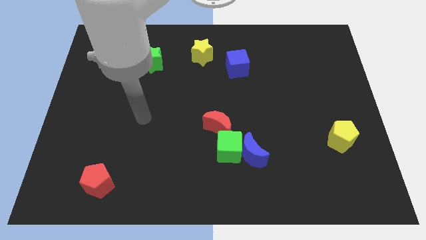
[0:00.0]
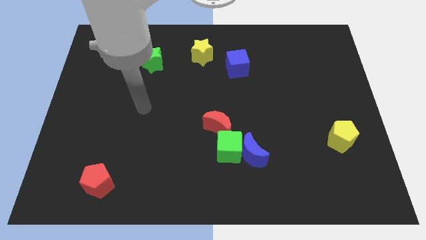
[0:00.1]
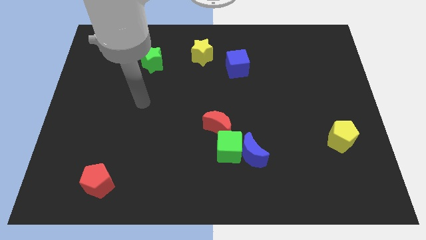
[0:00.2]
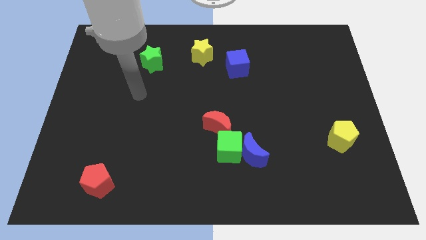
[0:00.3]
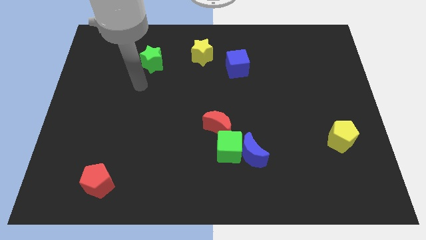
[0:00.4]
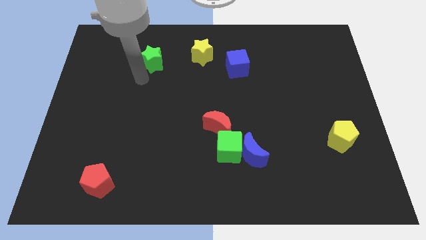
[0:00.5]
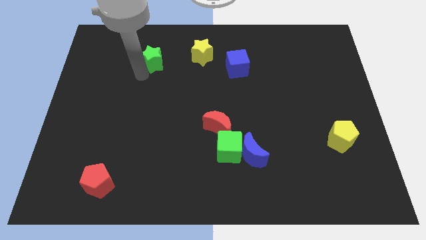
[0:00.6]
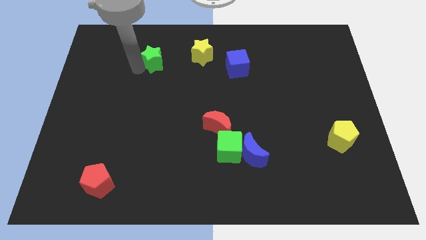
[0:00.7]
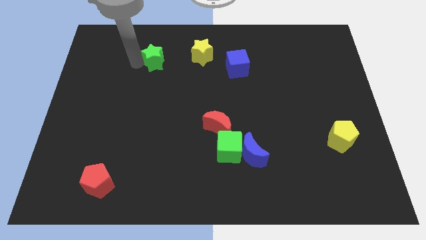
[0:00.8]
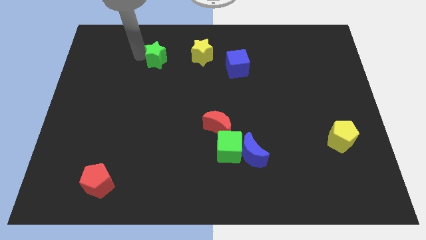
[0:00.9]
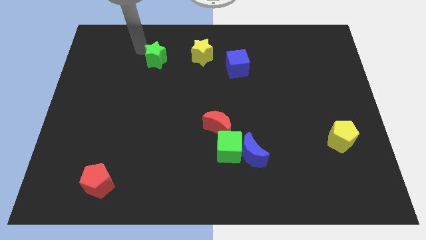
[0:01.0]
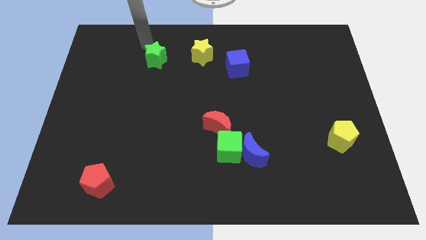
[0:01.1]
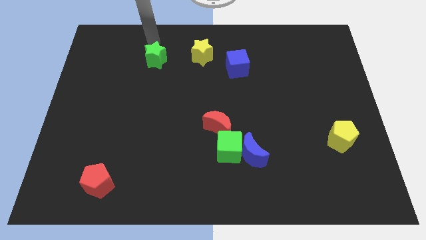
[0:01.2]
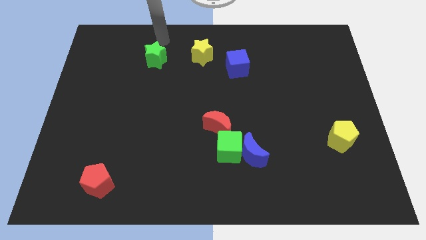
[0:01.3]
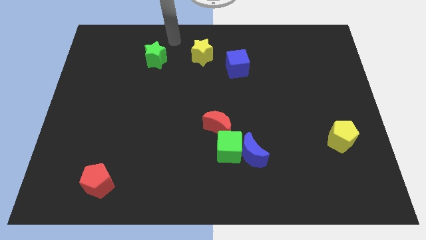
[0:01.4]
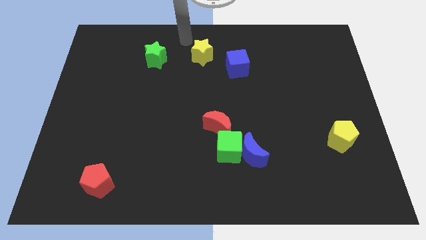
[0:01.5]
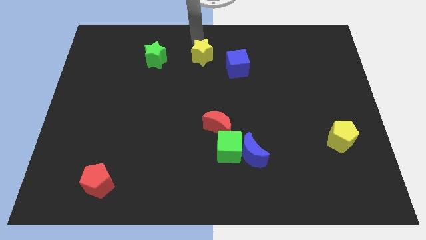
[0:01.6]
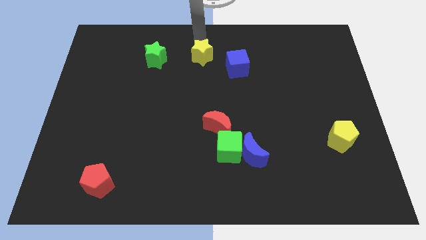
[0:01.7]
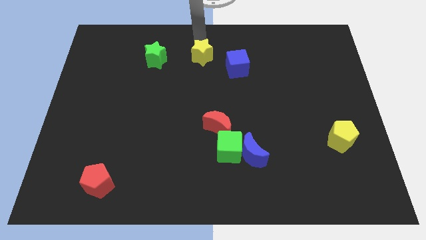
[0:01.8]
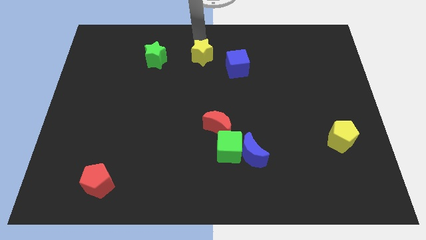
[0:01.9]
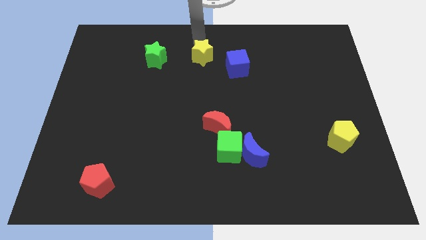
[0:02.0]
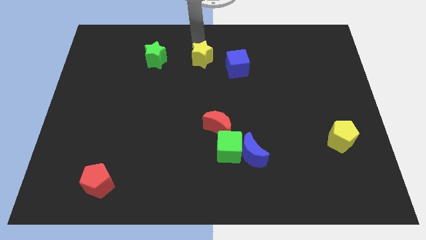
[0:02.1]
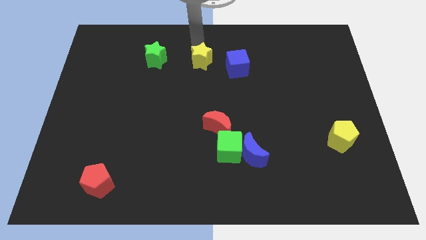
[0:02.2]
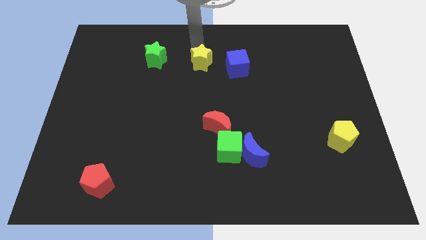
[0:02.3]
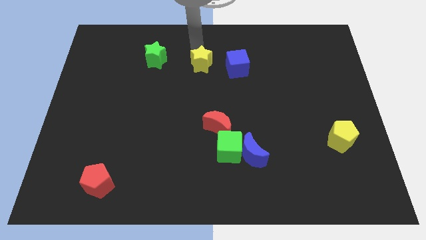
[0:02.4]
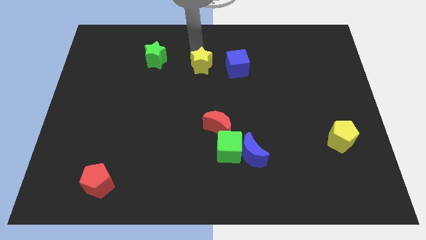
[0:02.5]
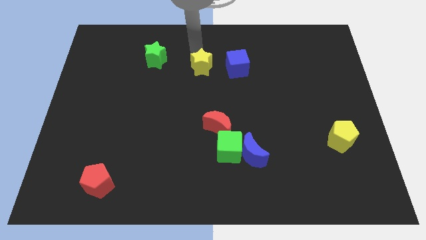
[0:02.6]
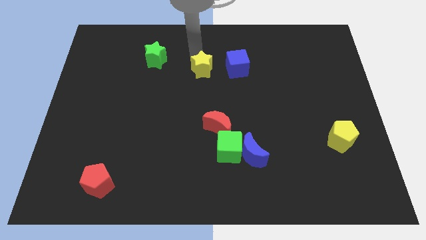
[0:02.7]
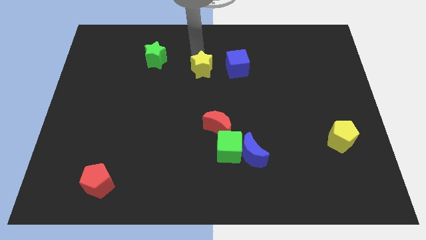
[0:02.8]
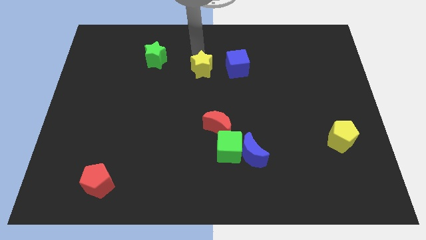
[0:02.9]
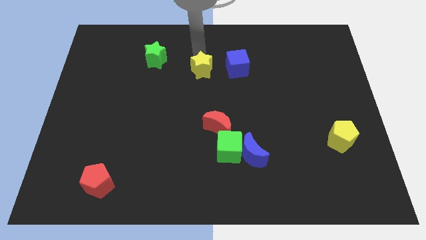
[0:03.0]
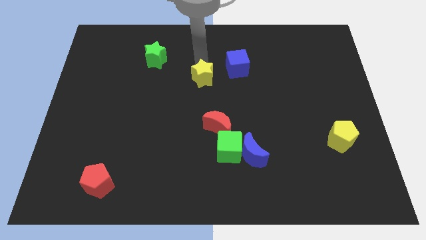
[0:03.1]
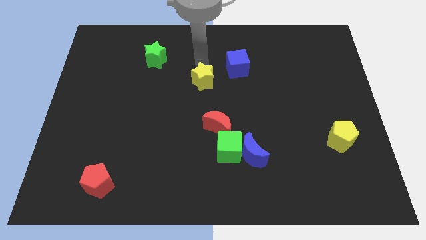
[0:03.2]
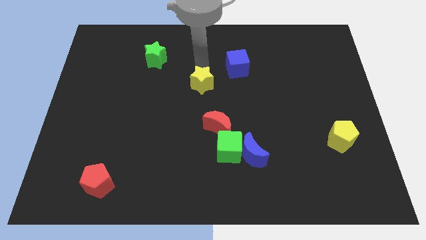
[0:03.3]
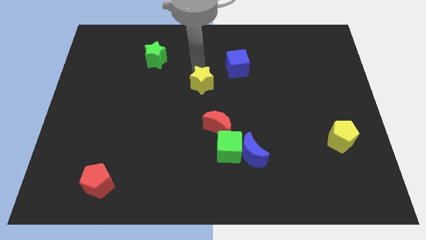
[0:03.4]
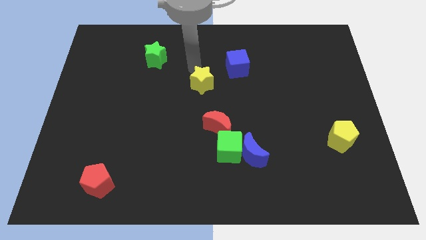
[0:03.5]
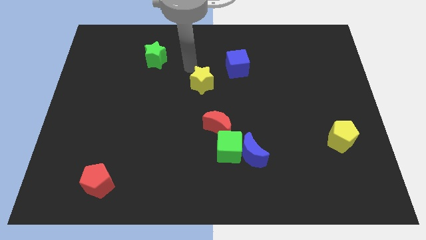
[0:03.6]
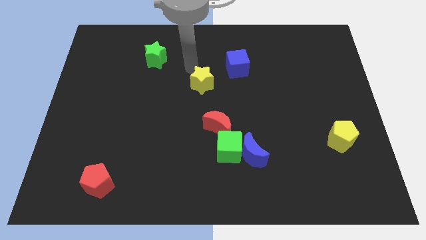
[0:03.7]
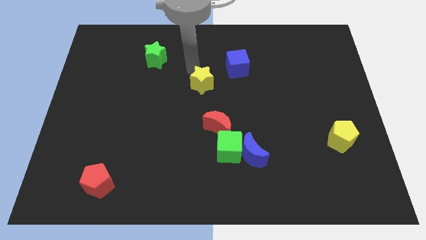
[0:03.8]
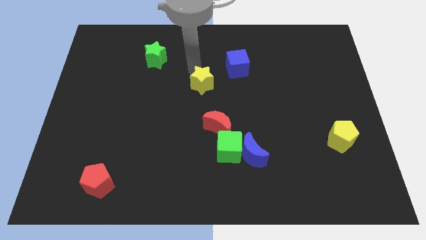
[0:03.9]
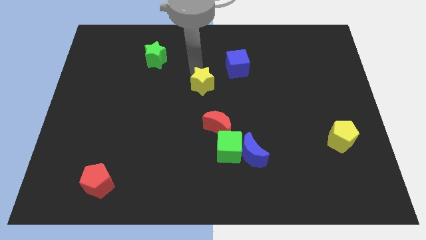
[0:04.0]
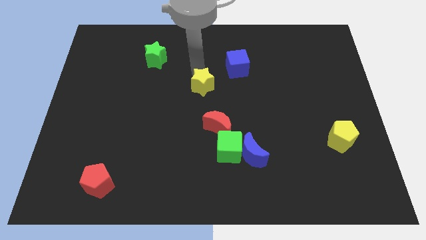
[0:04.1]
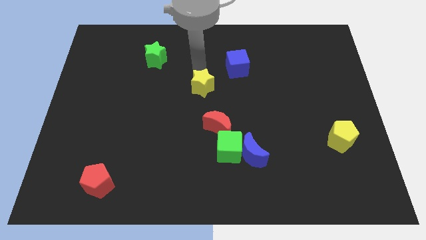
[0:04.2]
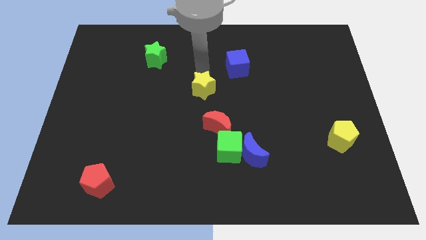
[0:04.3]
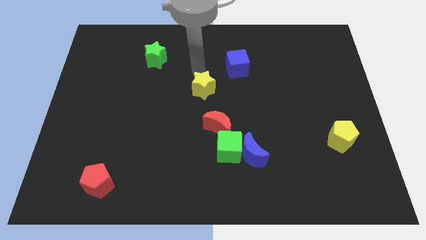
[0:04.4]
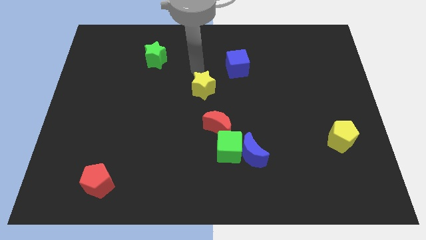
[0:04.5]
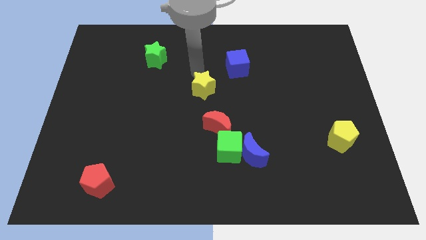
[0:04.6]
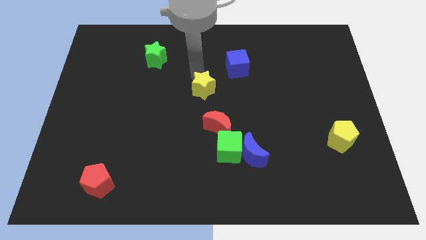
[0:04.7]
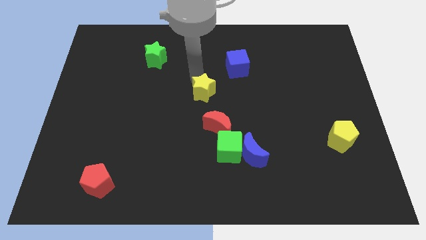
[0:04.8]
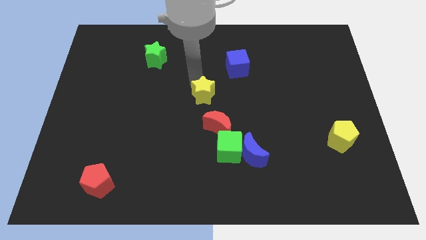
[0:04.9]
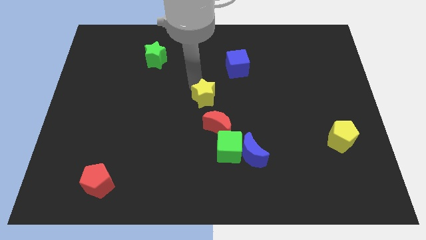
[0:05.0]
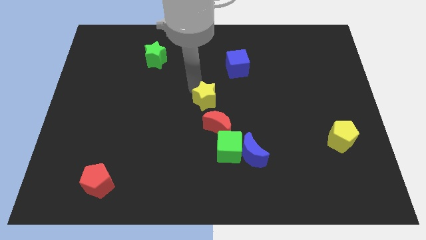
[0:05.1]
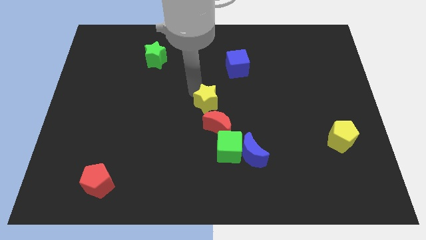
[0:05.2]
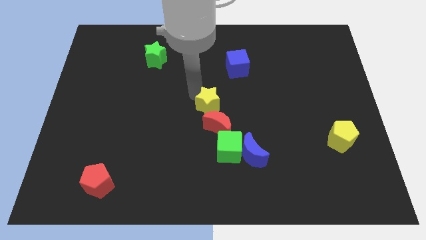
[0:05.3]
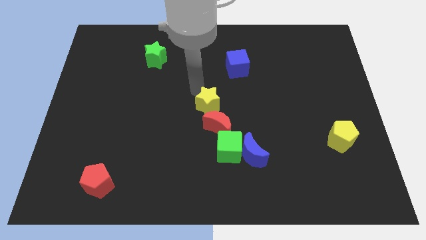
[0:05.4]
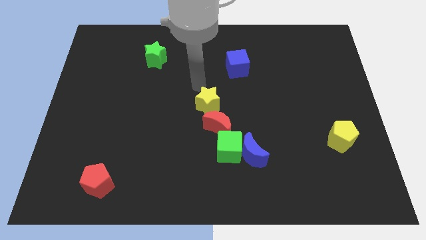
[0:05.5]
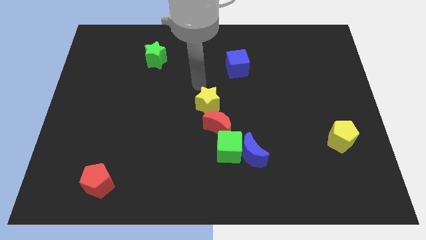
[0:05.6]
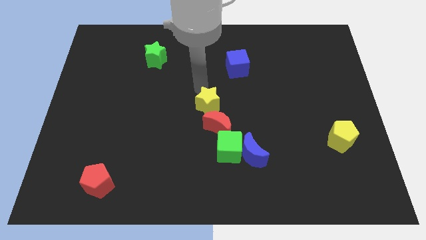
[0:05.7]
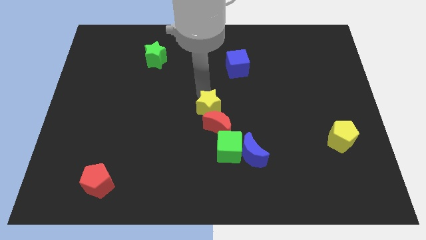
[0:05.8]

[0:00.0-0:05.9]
move the yellow star to the red moon

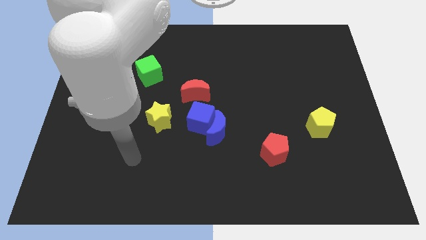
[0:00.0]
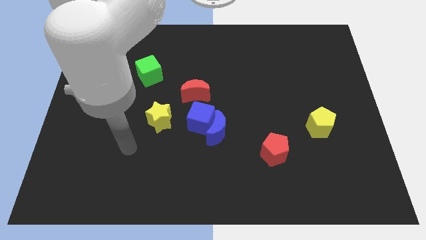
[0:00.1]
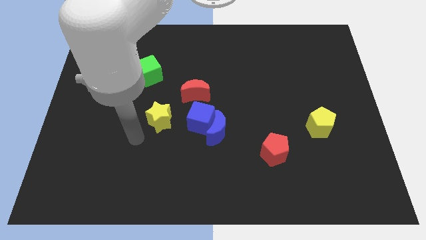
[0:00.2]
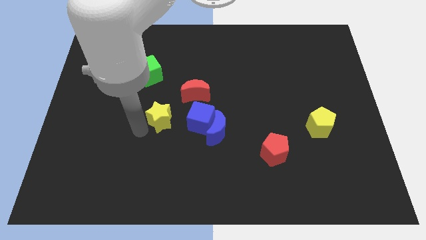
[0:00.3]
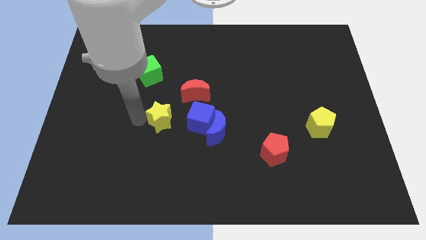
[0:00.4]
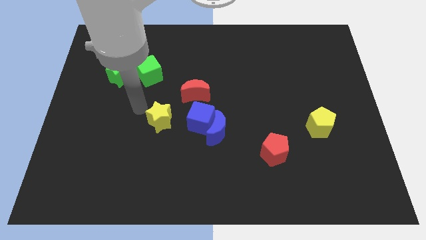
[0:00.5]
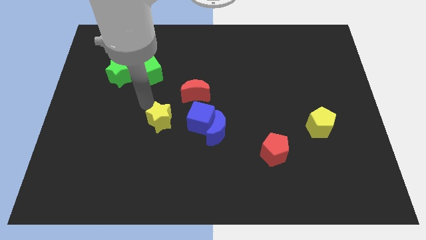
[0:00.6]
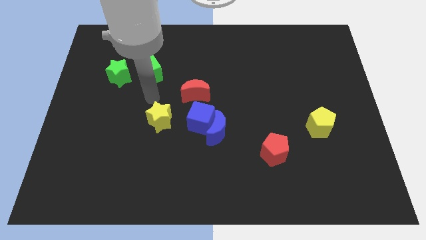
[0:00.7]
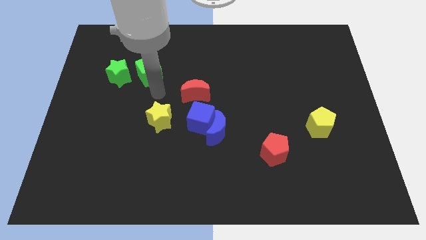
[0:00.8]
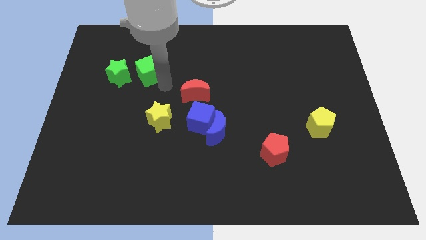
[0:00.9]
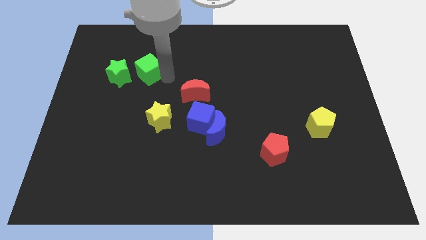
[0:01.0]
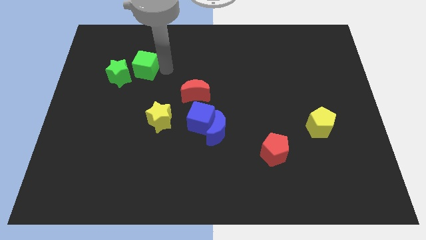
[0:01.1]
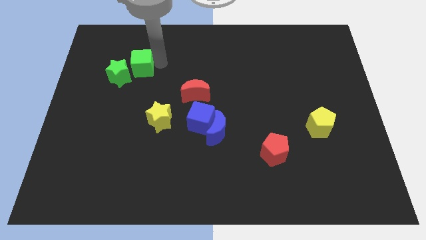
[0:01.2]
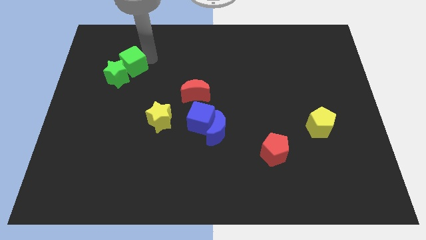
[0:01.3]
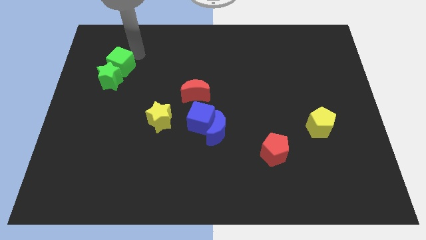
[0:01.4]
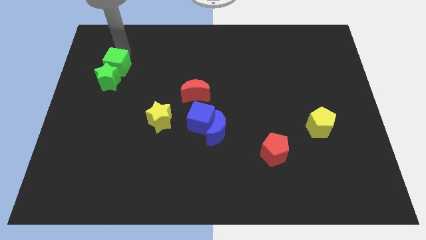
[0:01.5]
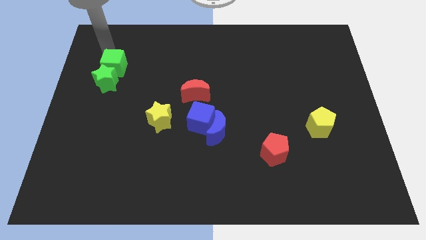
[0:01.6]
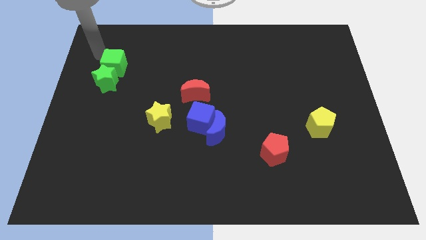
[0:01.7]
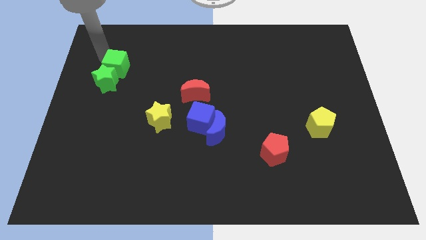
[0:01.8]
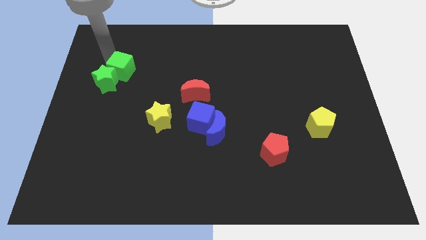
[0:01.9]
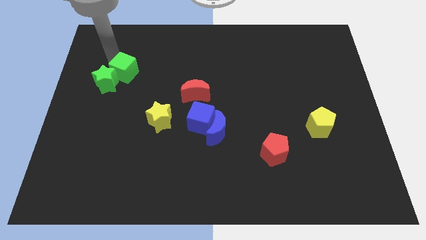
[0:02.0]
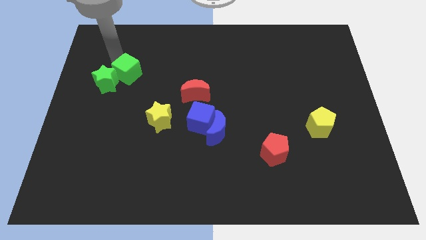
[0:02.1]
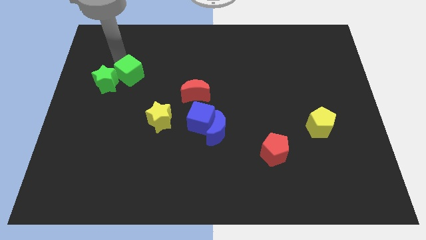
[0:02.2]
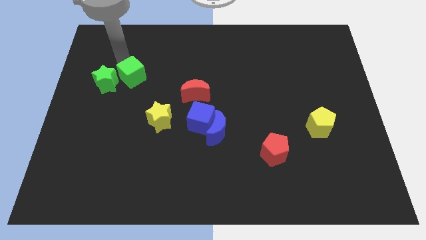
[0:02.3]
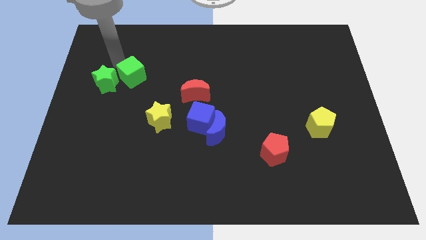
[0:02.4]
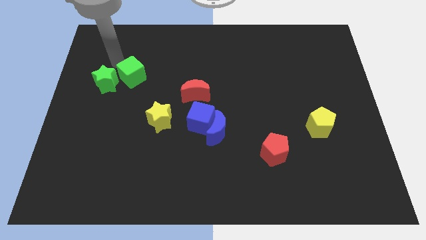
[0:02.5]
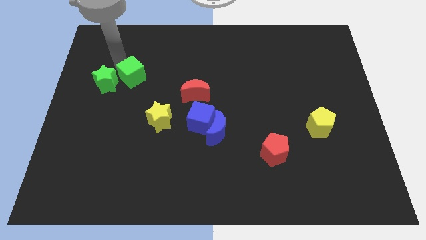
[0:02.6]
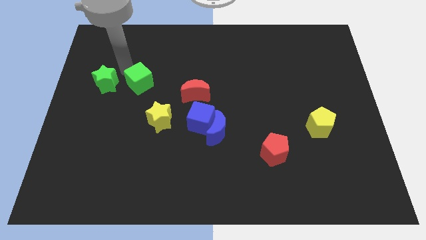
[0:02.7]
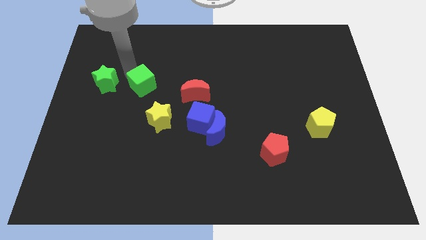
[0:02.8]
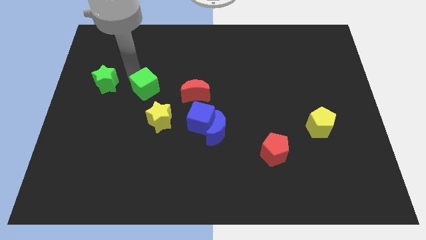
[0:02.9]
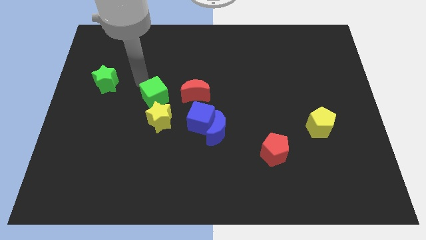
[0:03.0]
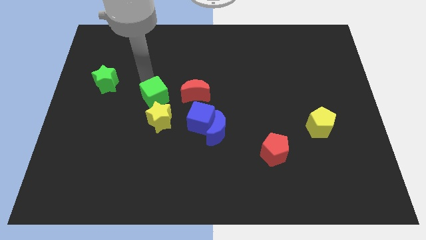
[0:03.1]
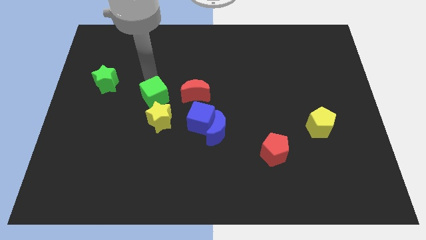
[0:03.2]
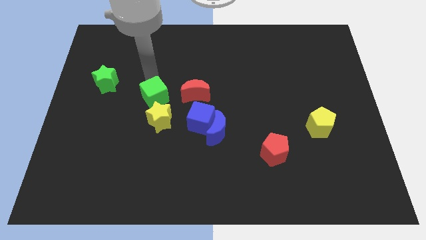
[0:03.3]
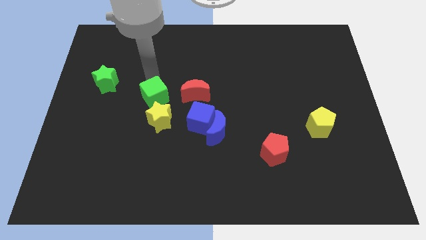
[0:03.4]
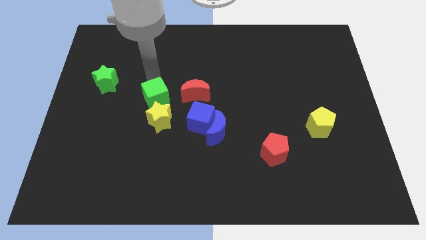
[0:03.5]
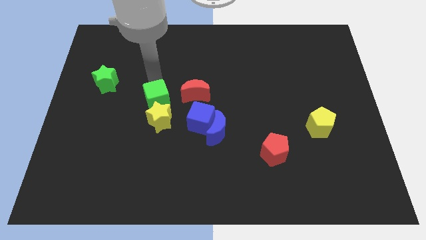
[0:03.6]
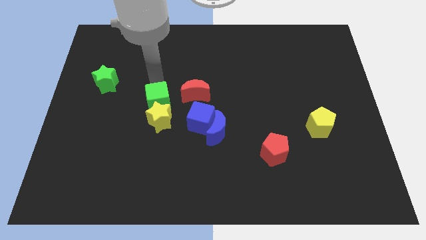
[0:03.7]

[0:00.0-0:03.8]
put the green cube next to the yellow star
